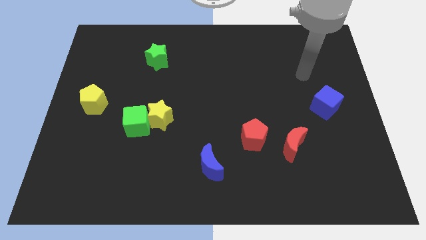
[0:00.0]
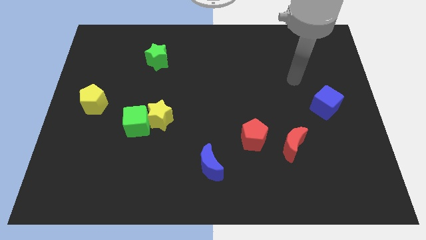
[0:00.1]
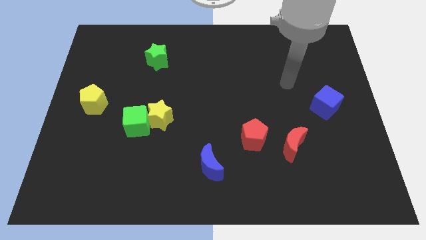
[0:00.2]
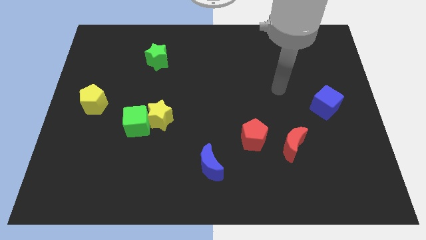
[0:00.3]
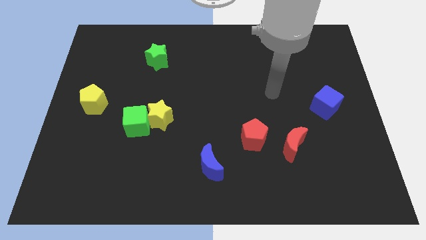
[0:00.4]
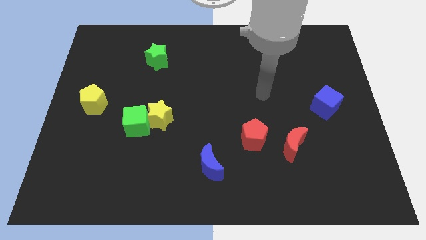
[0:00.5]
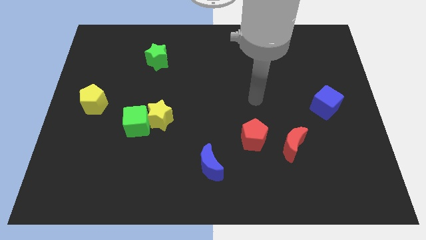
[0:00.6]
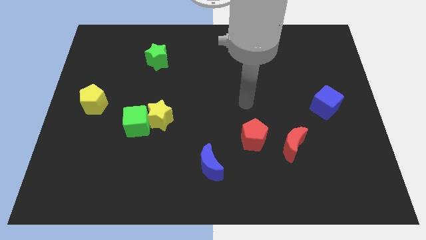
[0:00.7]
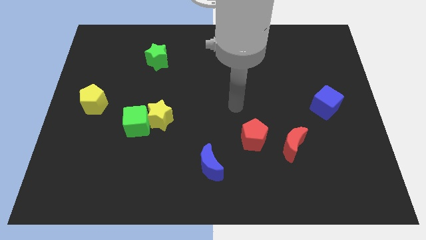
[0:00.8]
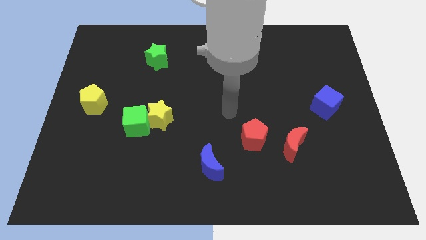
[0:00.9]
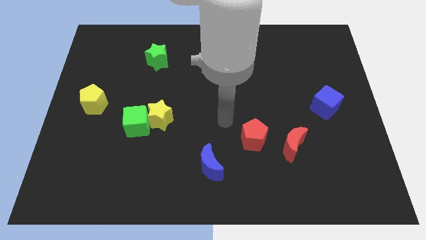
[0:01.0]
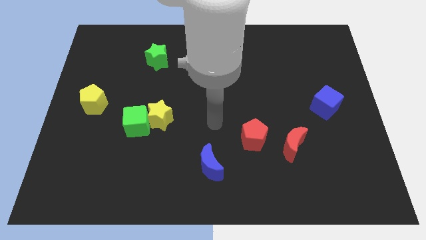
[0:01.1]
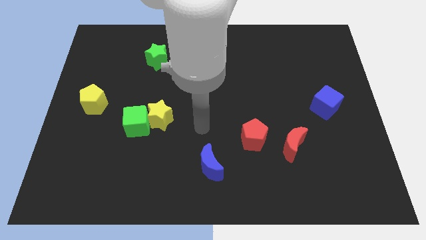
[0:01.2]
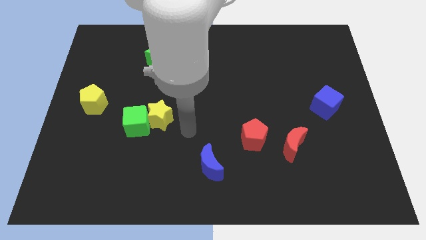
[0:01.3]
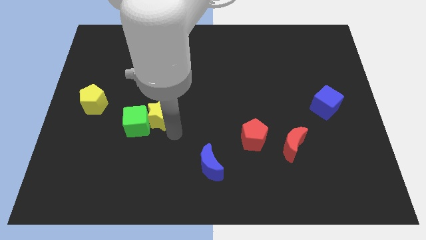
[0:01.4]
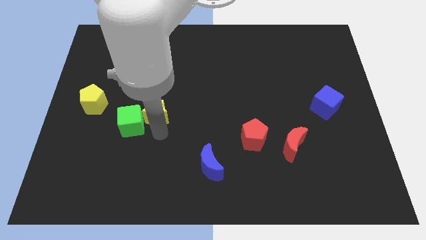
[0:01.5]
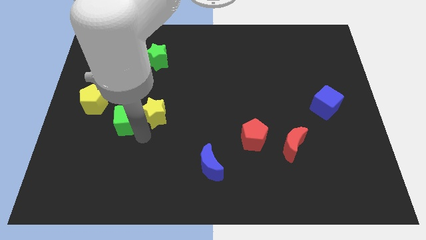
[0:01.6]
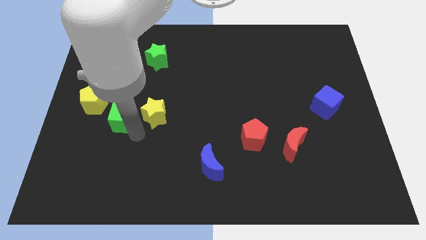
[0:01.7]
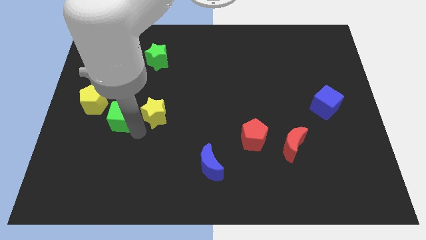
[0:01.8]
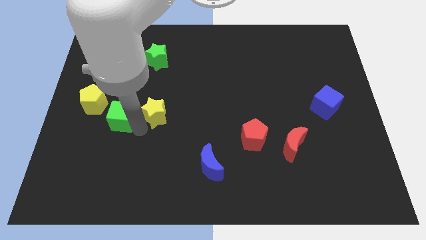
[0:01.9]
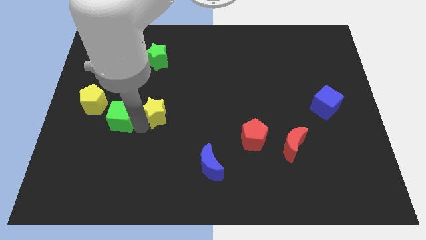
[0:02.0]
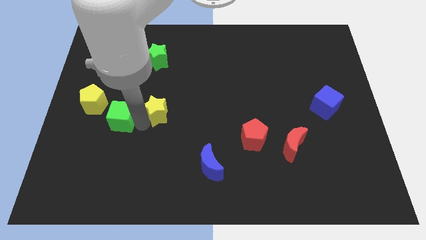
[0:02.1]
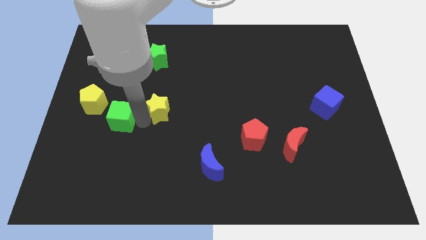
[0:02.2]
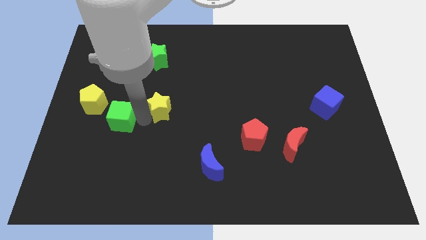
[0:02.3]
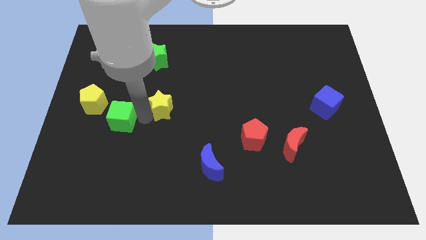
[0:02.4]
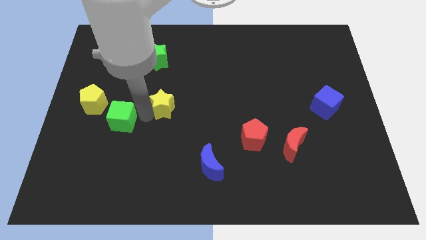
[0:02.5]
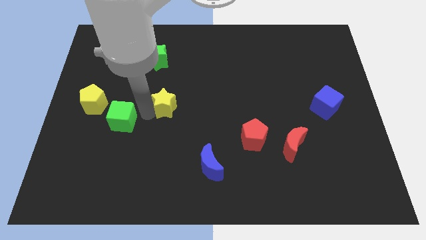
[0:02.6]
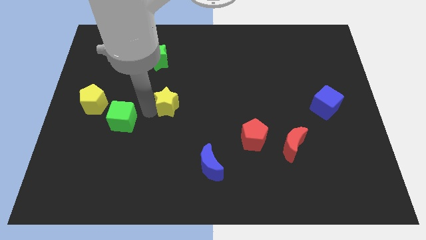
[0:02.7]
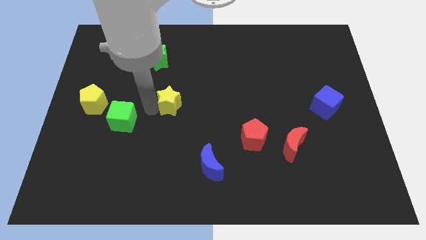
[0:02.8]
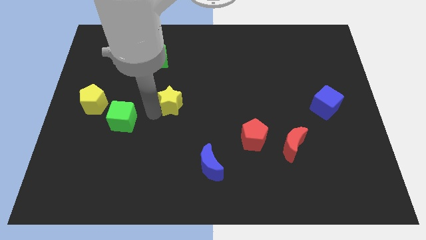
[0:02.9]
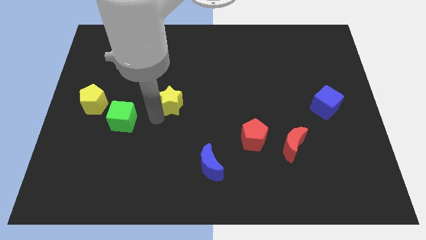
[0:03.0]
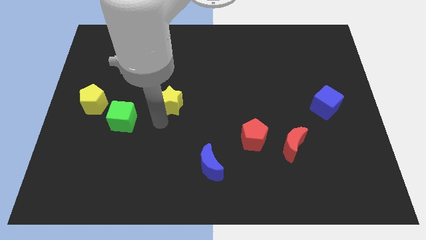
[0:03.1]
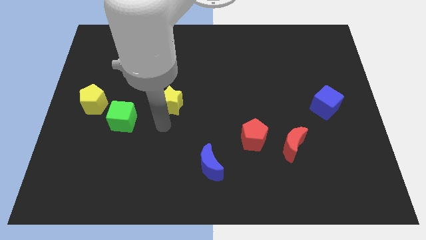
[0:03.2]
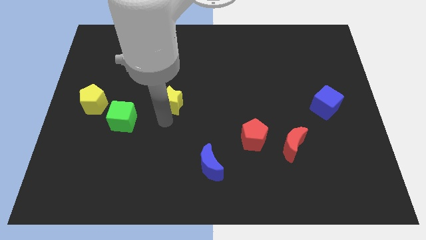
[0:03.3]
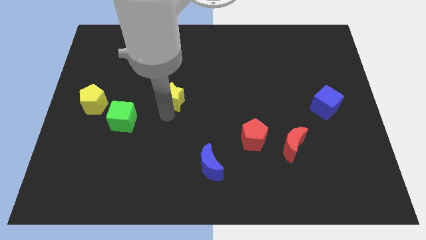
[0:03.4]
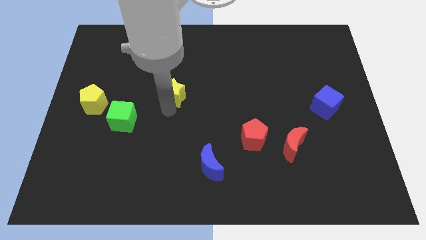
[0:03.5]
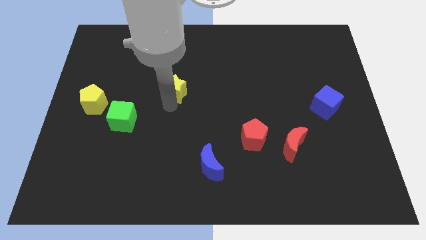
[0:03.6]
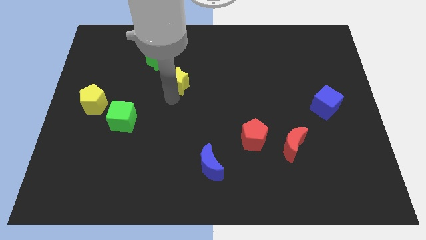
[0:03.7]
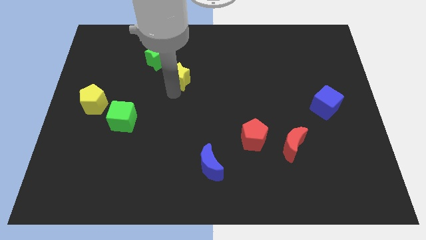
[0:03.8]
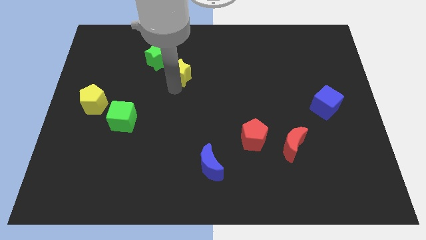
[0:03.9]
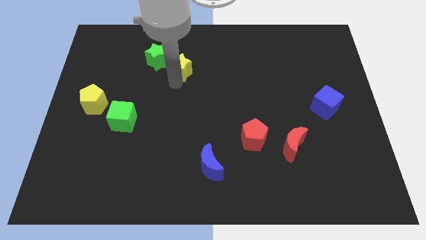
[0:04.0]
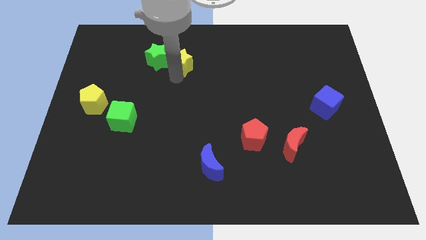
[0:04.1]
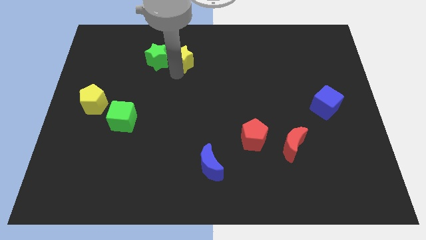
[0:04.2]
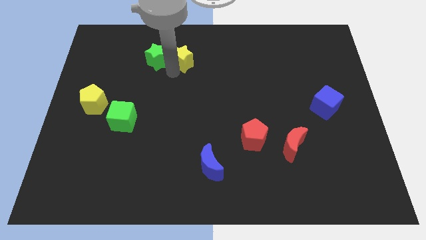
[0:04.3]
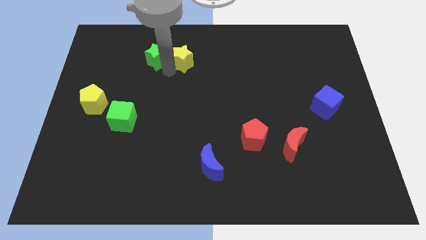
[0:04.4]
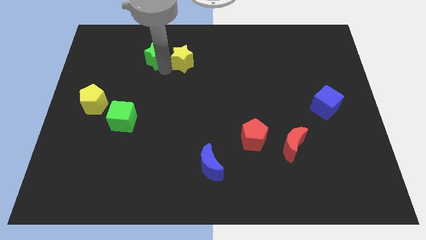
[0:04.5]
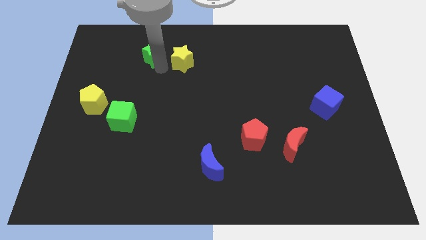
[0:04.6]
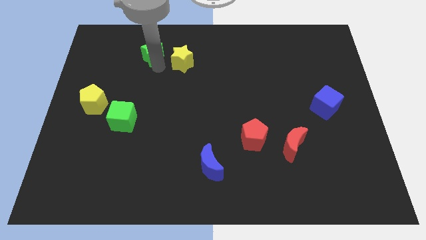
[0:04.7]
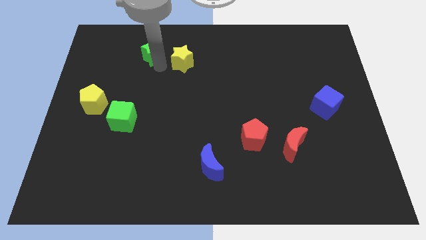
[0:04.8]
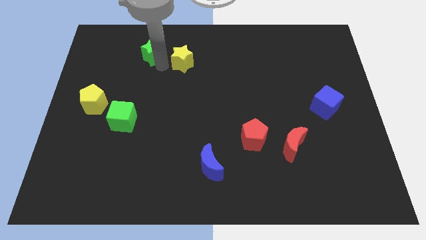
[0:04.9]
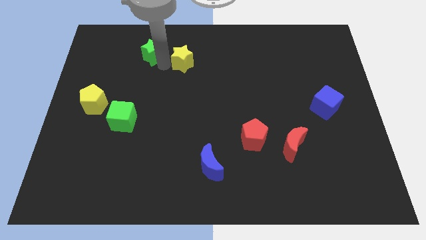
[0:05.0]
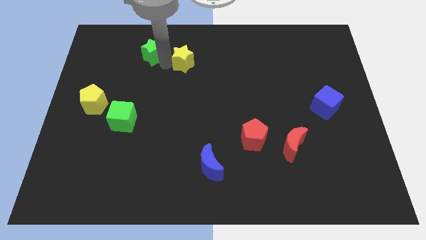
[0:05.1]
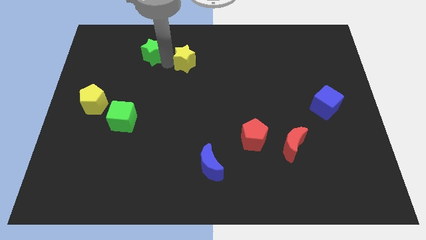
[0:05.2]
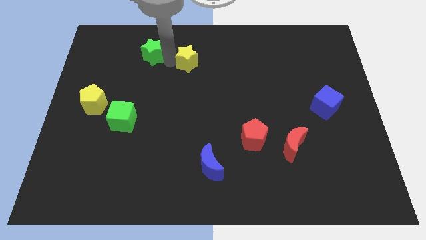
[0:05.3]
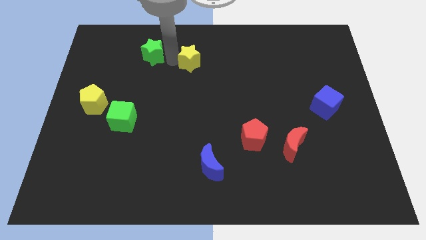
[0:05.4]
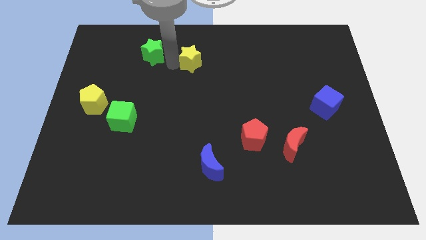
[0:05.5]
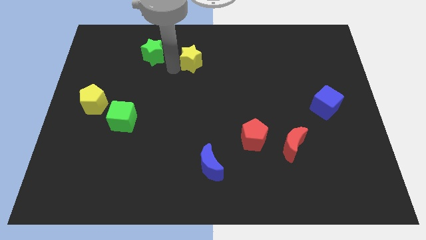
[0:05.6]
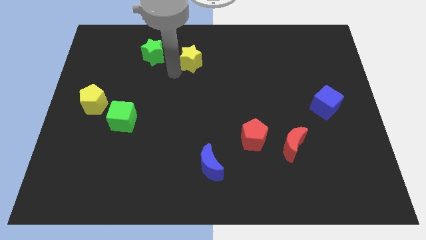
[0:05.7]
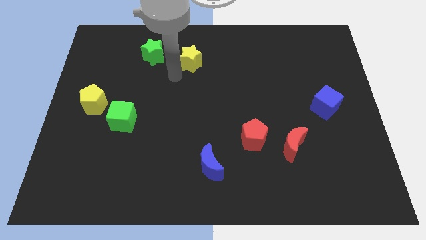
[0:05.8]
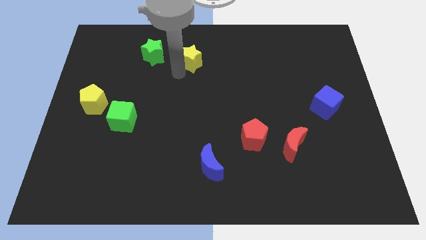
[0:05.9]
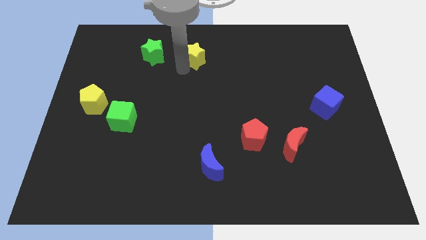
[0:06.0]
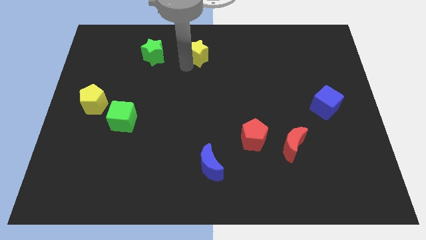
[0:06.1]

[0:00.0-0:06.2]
slide the yellow star to the towards your base

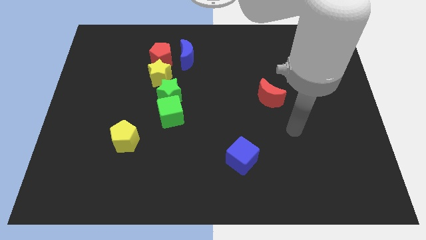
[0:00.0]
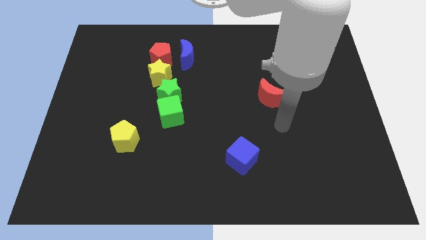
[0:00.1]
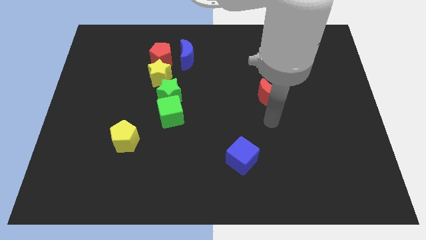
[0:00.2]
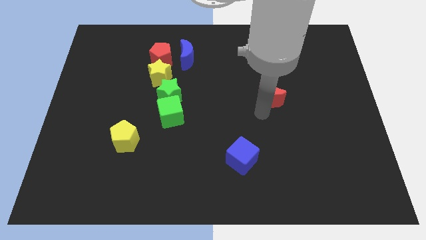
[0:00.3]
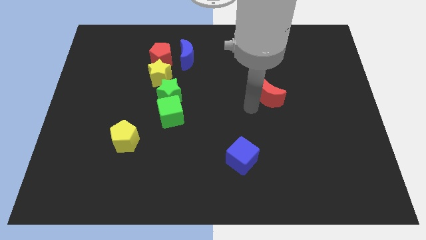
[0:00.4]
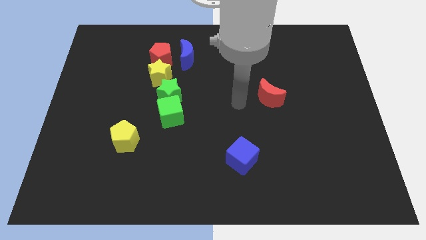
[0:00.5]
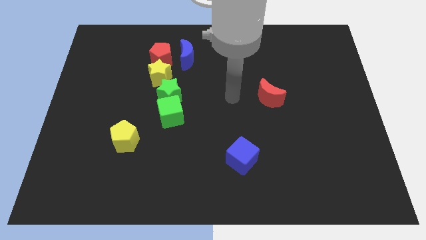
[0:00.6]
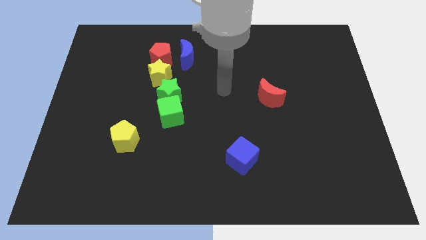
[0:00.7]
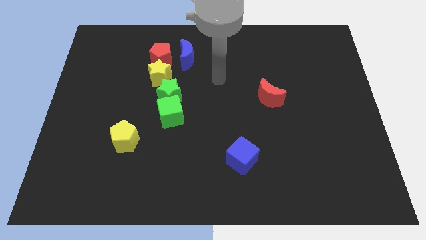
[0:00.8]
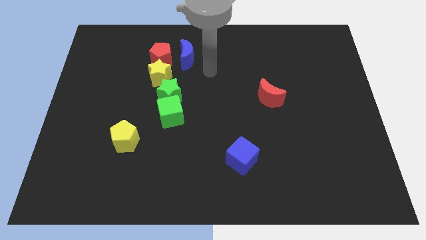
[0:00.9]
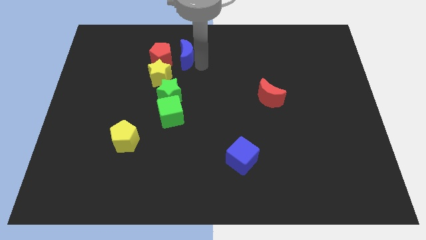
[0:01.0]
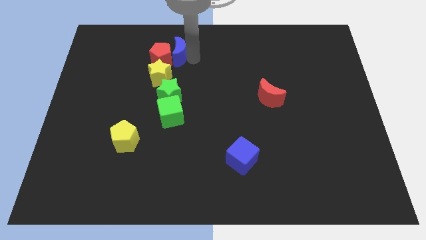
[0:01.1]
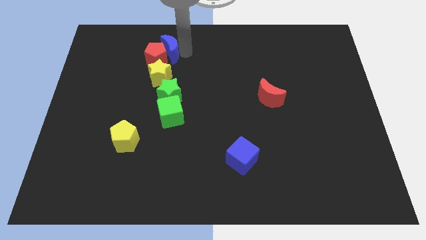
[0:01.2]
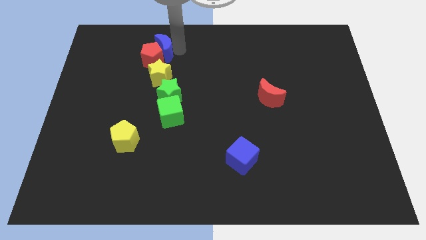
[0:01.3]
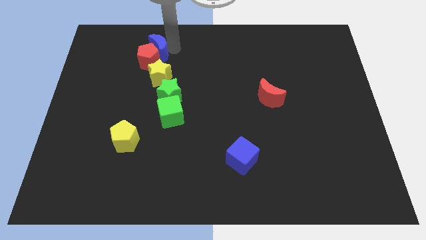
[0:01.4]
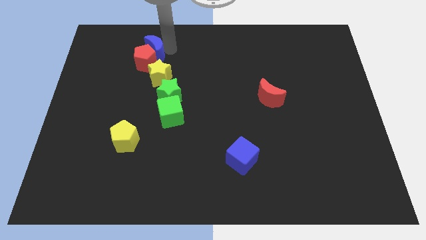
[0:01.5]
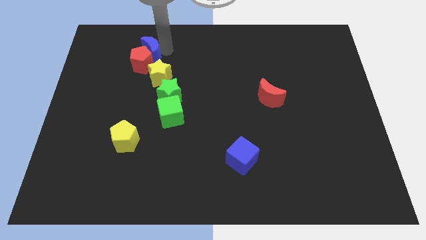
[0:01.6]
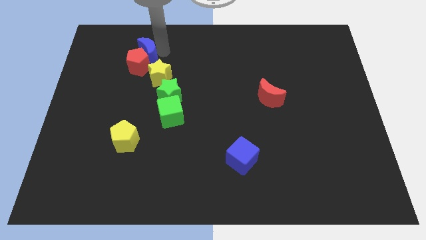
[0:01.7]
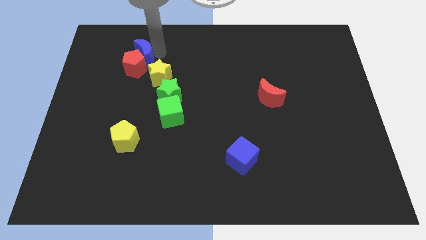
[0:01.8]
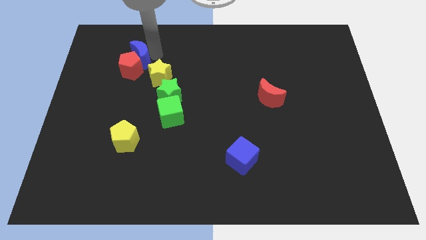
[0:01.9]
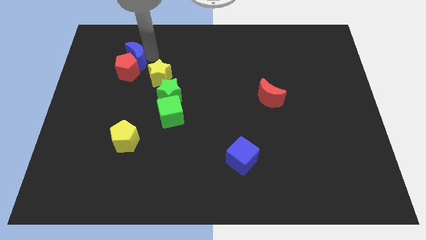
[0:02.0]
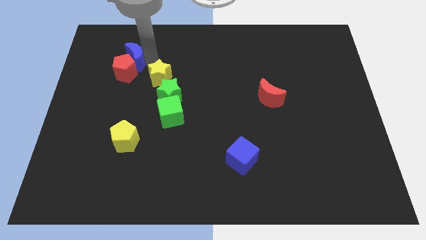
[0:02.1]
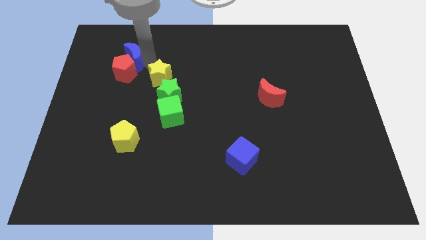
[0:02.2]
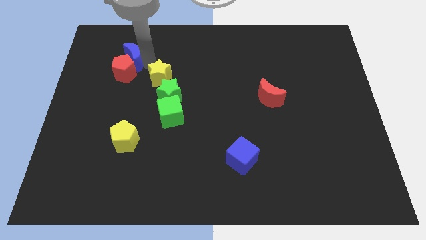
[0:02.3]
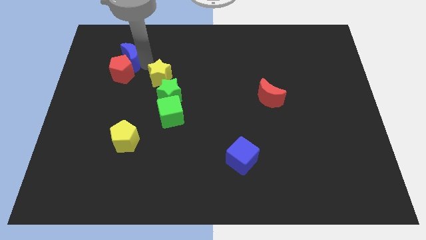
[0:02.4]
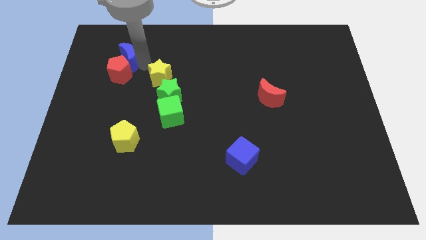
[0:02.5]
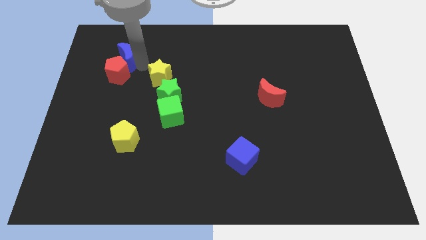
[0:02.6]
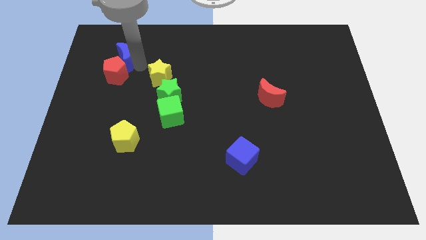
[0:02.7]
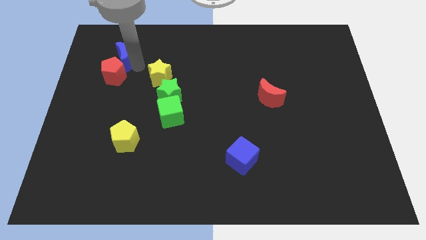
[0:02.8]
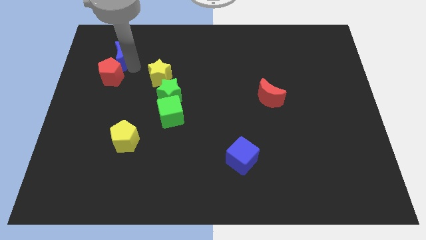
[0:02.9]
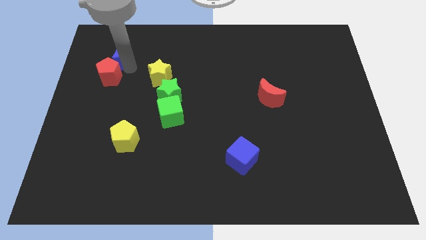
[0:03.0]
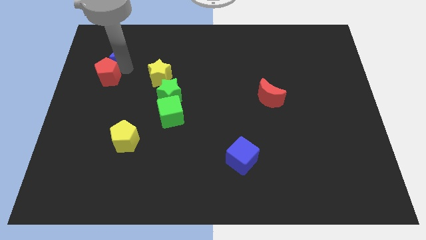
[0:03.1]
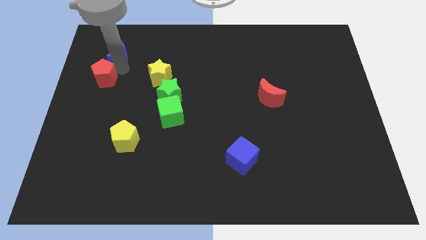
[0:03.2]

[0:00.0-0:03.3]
push the red pentagon to the left side of the board
